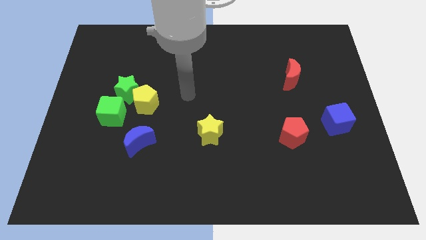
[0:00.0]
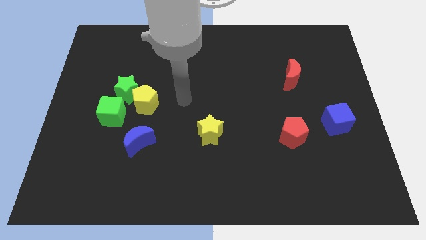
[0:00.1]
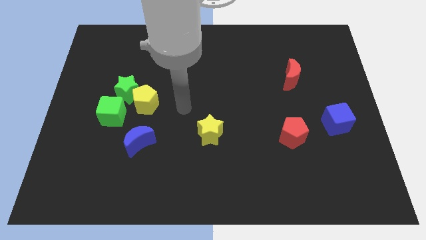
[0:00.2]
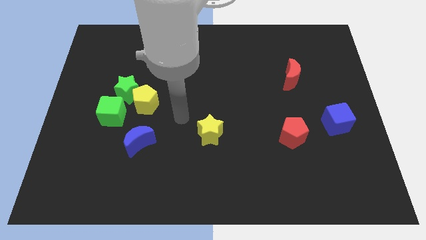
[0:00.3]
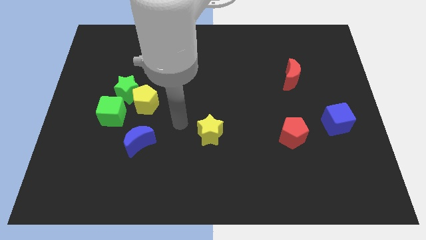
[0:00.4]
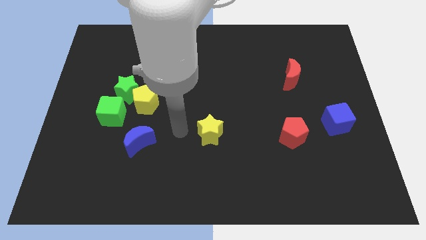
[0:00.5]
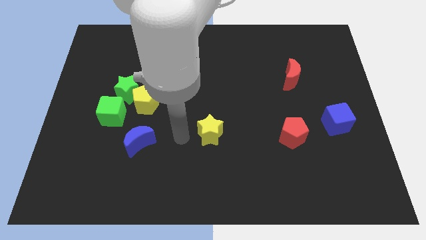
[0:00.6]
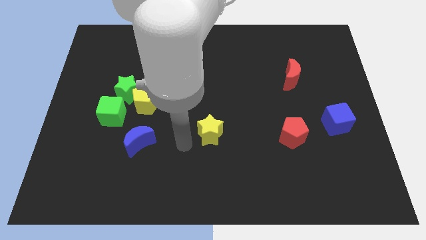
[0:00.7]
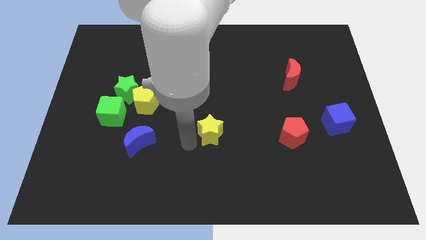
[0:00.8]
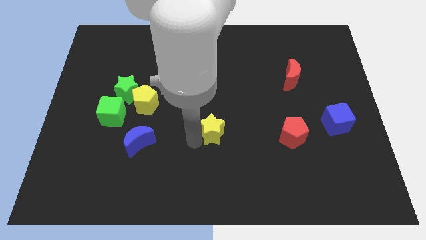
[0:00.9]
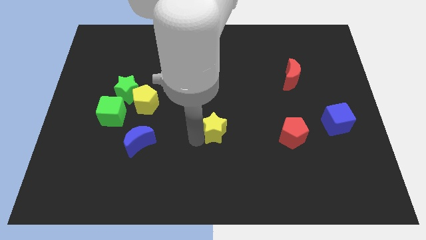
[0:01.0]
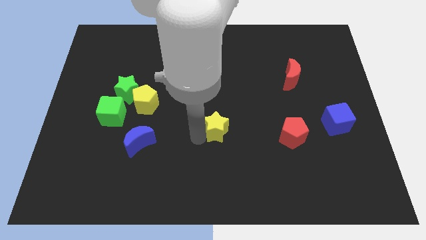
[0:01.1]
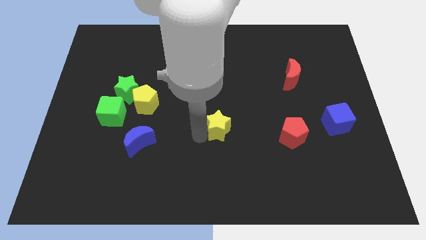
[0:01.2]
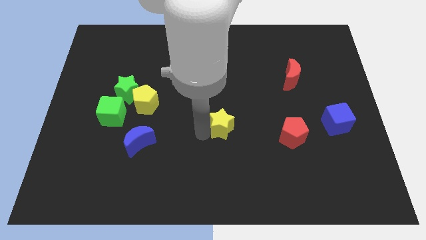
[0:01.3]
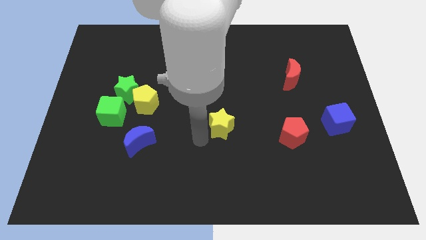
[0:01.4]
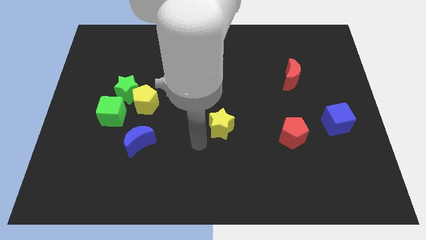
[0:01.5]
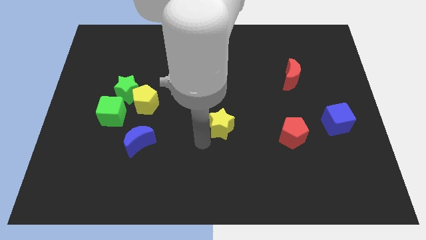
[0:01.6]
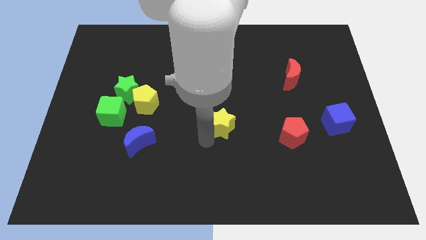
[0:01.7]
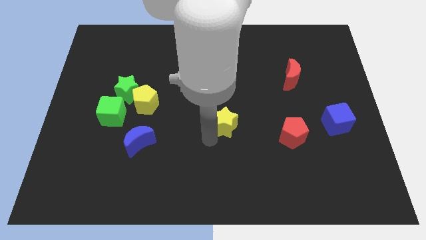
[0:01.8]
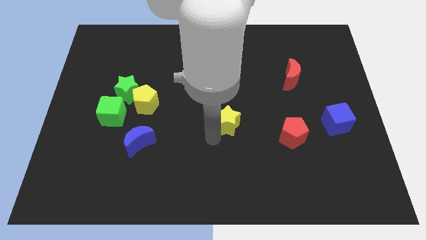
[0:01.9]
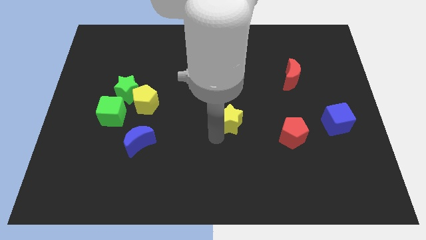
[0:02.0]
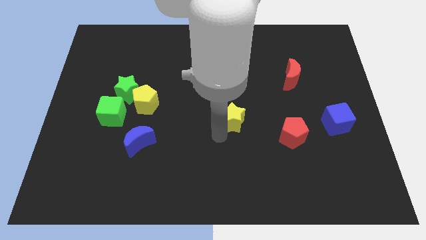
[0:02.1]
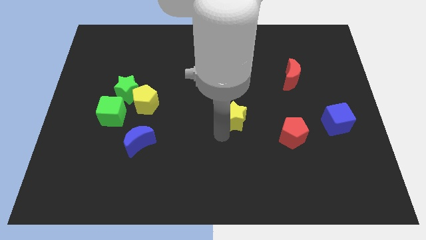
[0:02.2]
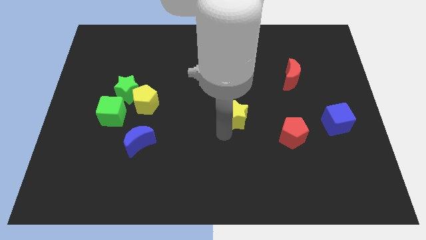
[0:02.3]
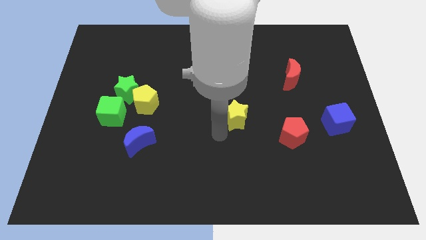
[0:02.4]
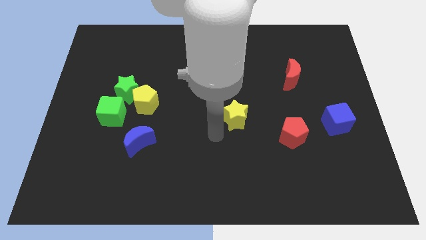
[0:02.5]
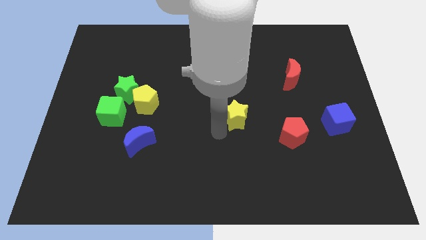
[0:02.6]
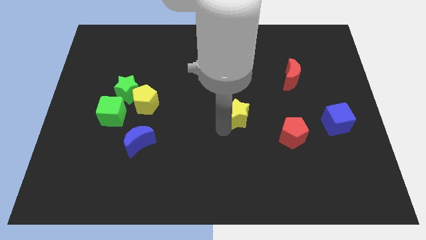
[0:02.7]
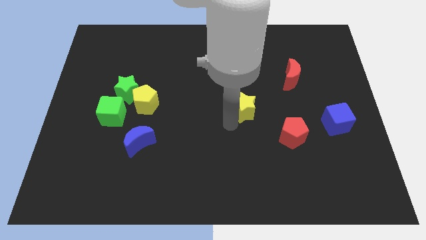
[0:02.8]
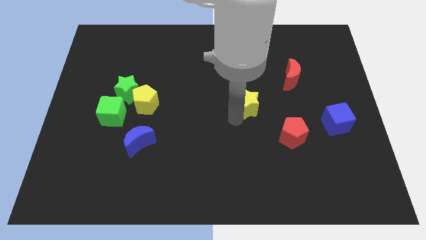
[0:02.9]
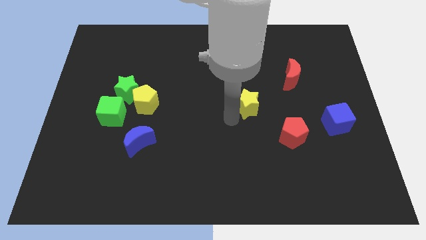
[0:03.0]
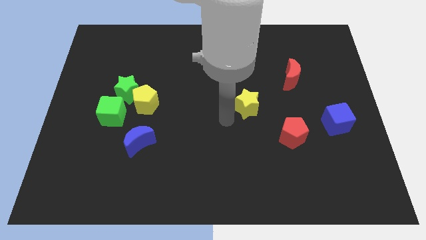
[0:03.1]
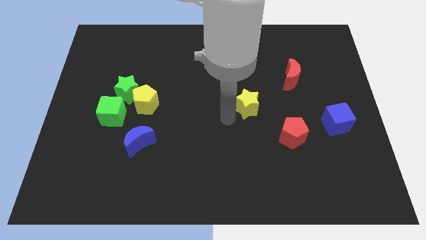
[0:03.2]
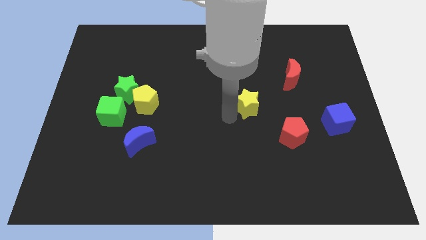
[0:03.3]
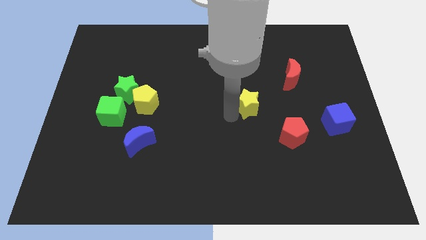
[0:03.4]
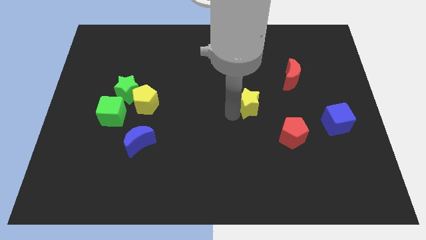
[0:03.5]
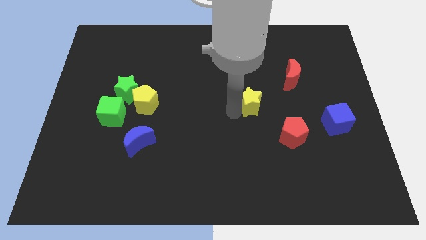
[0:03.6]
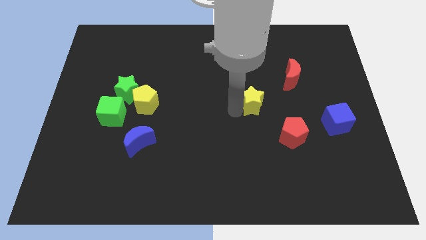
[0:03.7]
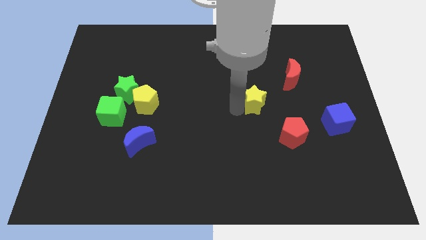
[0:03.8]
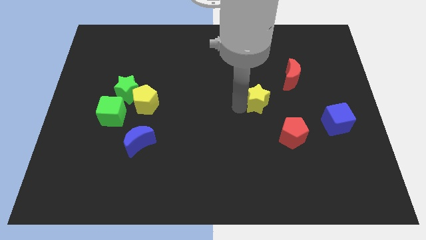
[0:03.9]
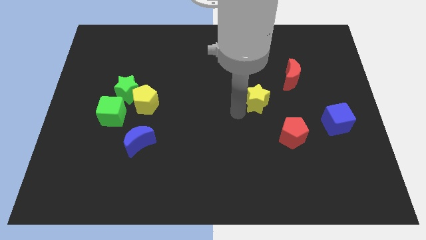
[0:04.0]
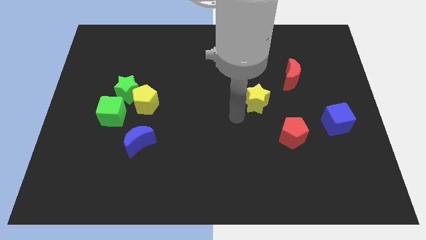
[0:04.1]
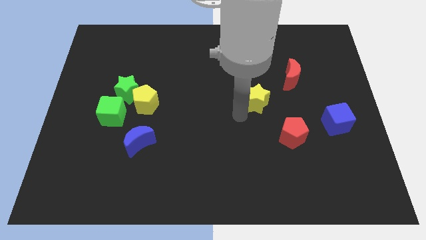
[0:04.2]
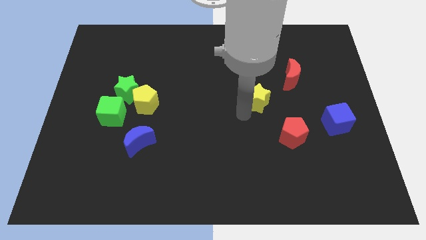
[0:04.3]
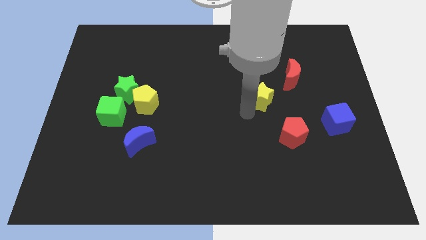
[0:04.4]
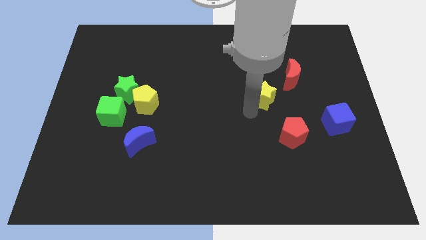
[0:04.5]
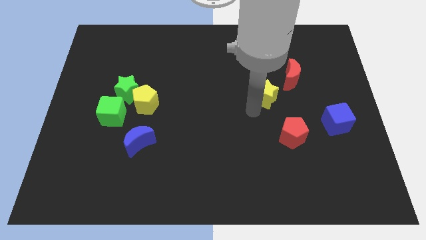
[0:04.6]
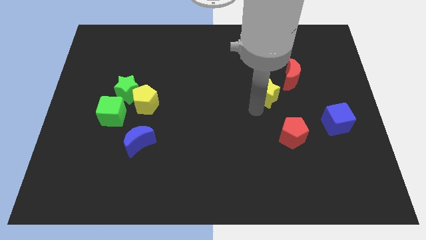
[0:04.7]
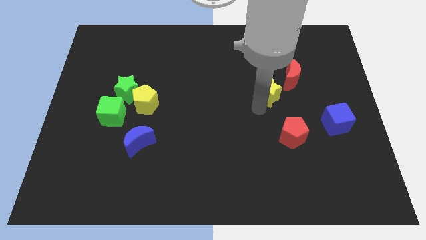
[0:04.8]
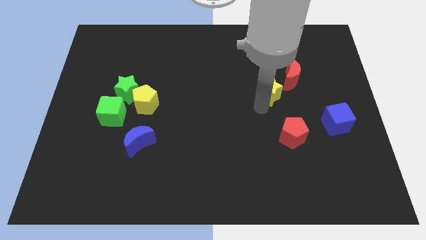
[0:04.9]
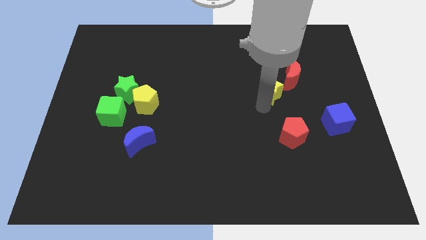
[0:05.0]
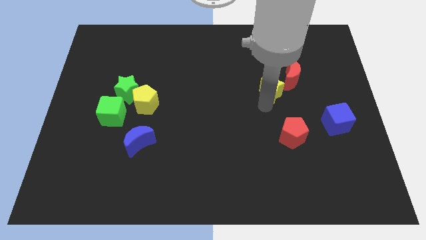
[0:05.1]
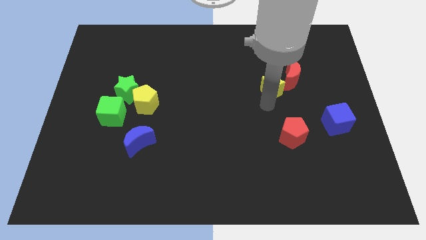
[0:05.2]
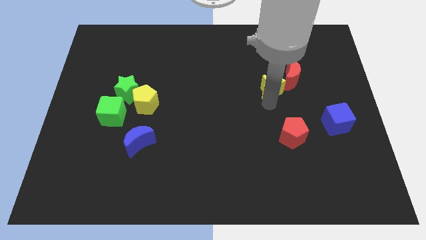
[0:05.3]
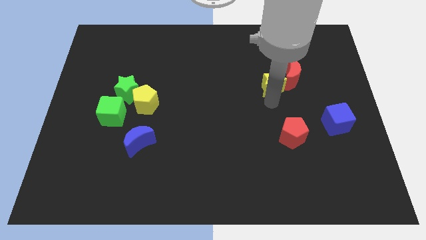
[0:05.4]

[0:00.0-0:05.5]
put the yellow star towards the red moon

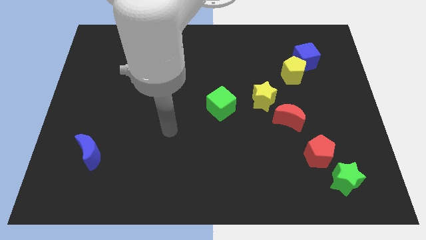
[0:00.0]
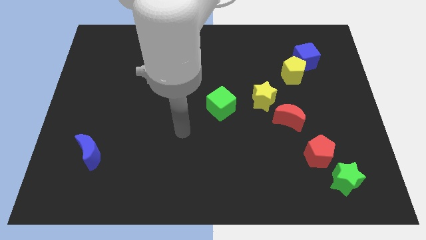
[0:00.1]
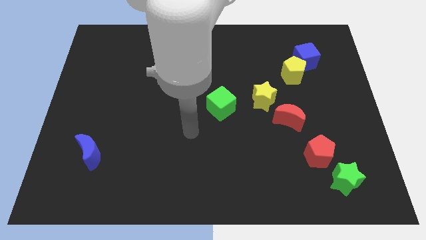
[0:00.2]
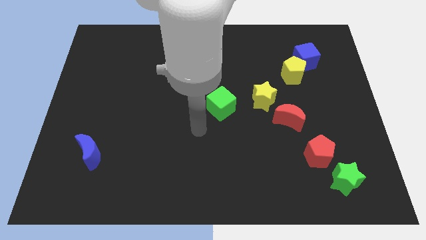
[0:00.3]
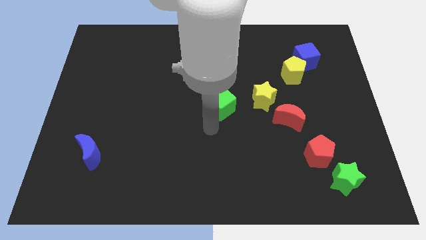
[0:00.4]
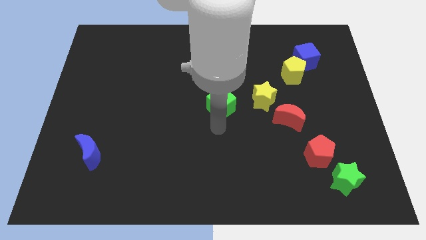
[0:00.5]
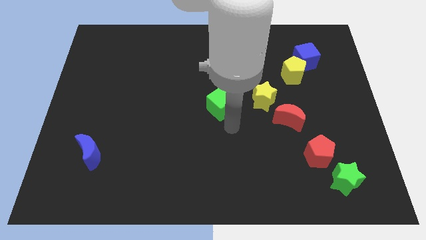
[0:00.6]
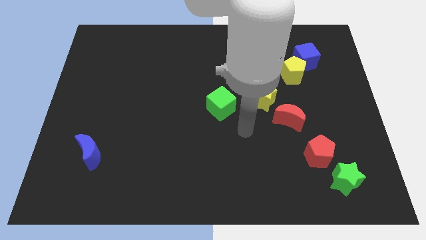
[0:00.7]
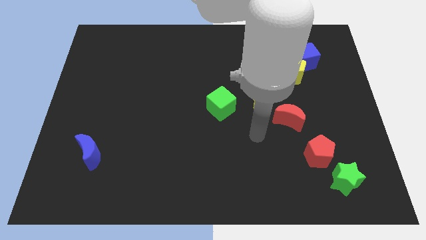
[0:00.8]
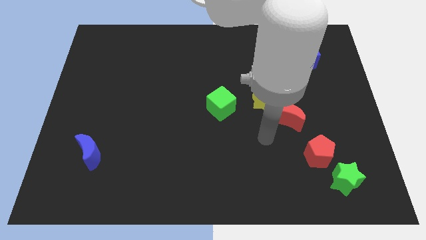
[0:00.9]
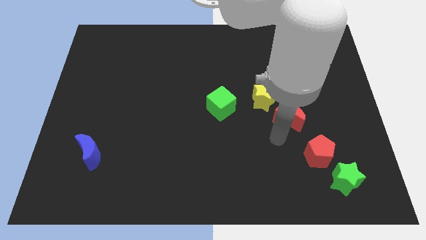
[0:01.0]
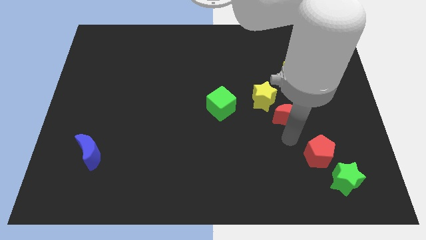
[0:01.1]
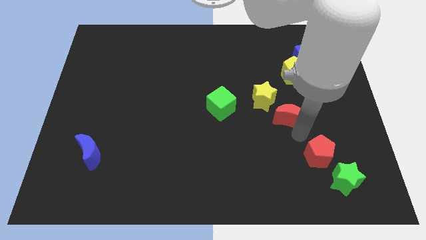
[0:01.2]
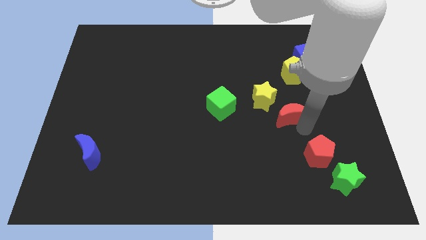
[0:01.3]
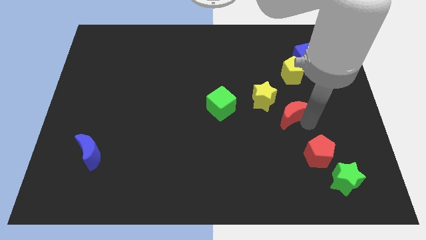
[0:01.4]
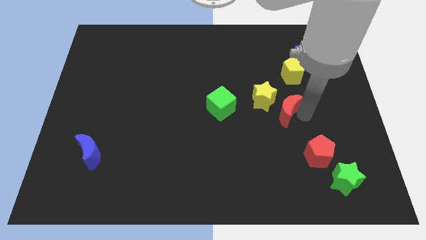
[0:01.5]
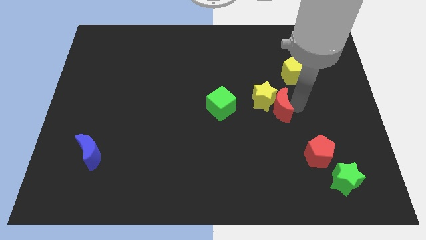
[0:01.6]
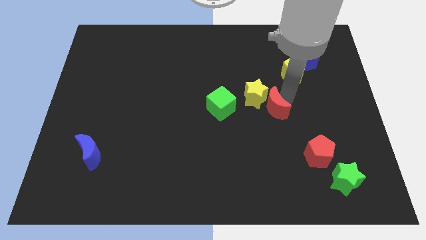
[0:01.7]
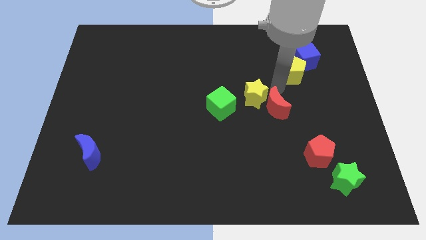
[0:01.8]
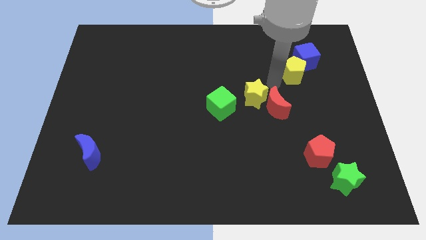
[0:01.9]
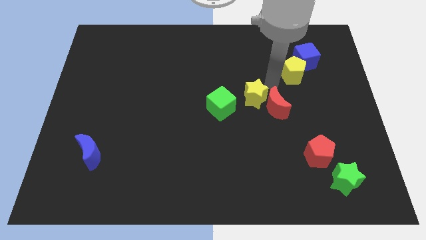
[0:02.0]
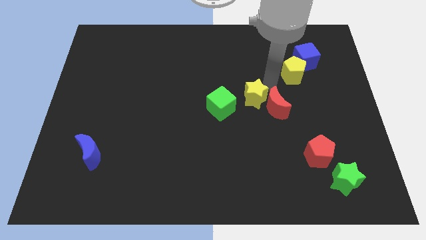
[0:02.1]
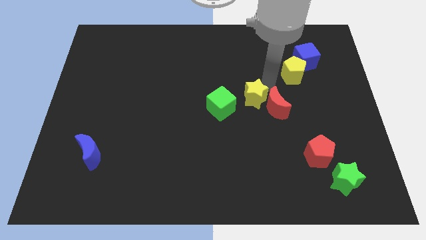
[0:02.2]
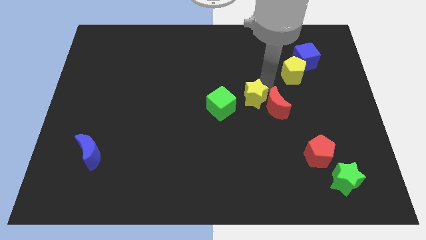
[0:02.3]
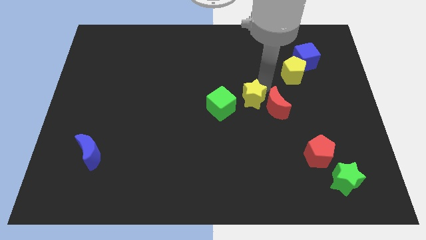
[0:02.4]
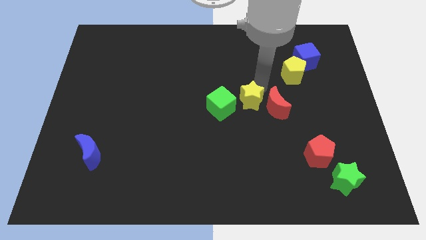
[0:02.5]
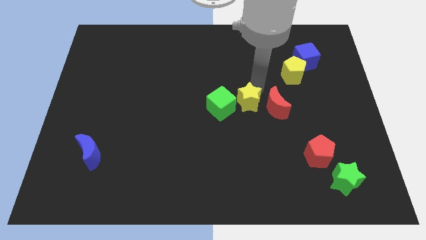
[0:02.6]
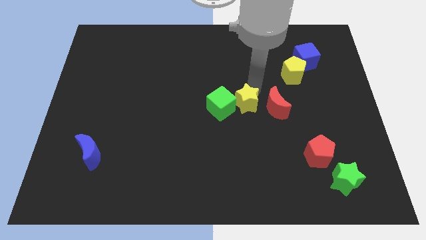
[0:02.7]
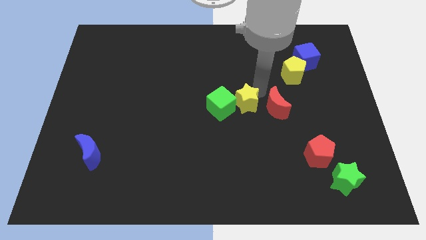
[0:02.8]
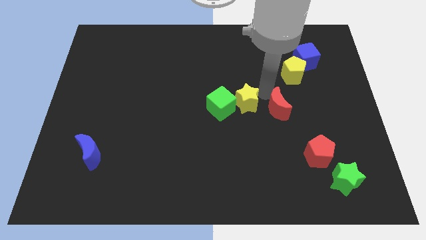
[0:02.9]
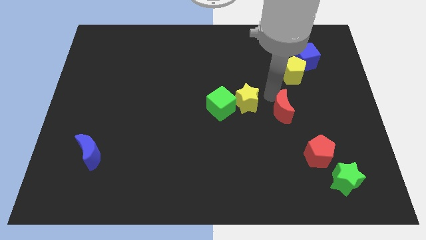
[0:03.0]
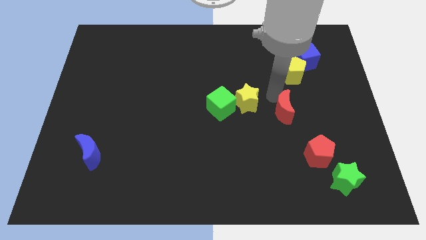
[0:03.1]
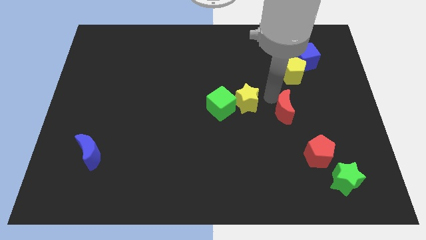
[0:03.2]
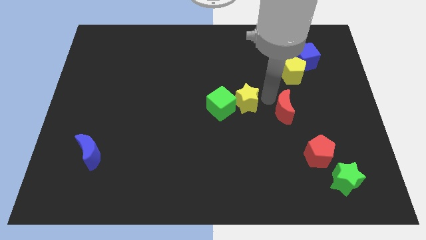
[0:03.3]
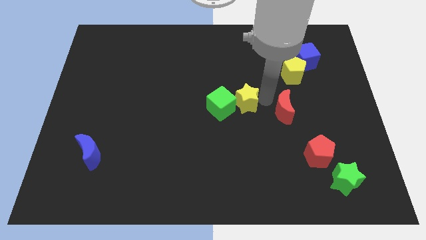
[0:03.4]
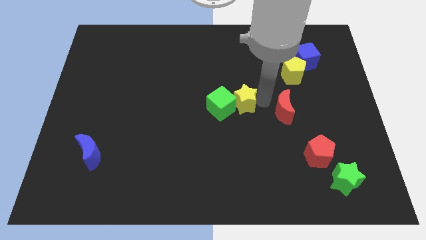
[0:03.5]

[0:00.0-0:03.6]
move the yellow star towards the green cube
